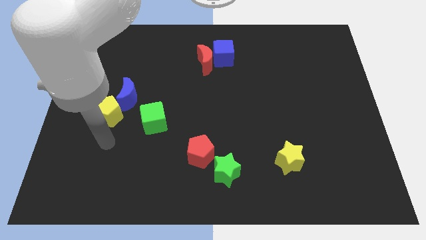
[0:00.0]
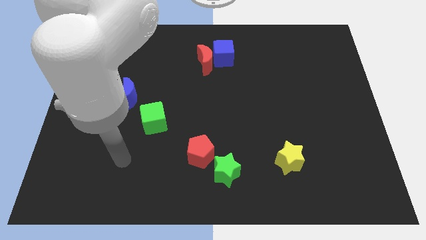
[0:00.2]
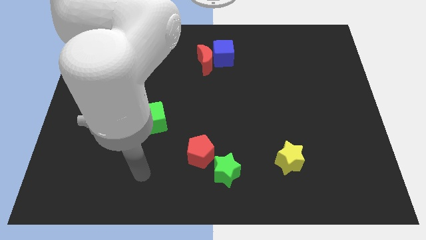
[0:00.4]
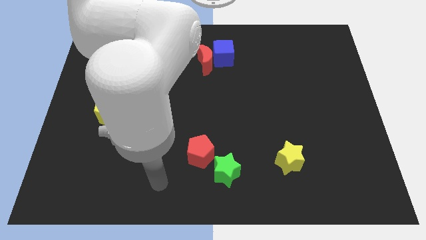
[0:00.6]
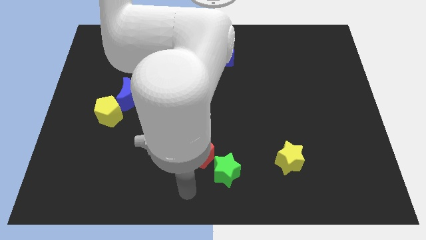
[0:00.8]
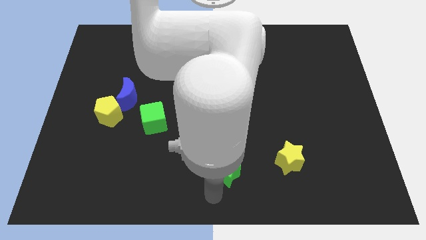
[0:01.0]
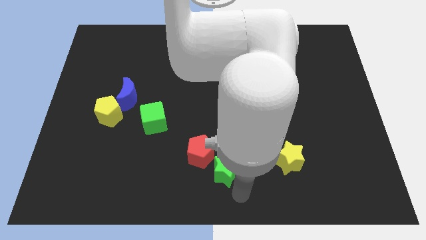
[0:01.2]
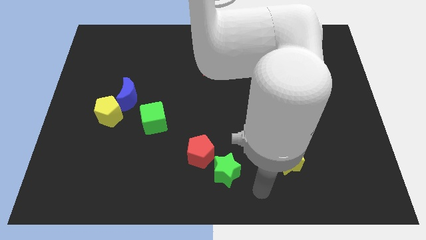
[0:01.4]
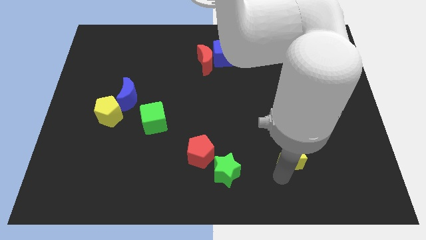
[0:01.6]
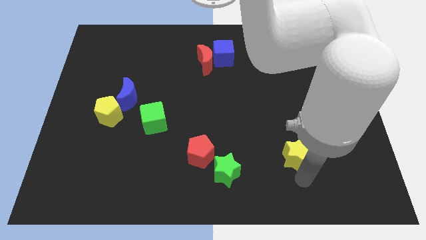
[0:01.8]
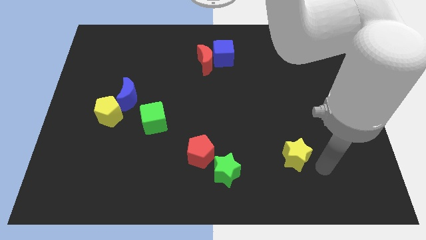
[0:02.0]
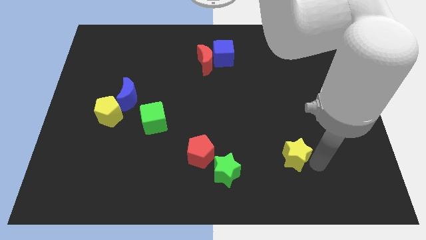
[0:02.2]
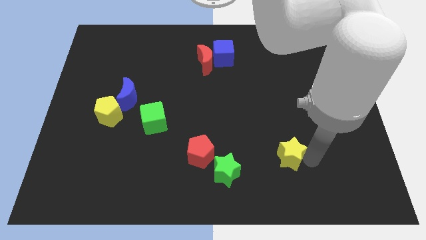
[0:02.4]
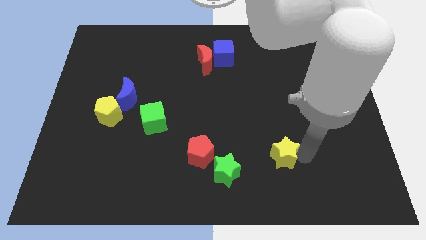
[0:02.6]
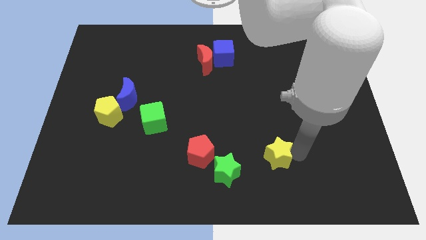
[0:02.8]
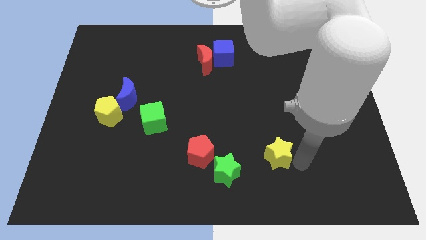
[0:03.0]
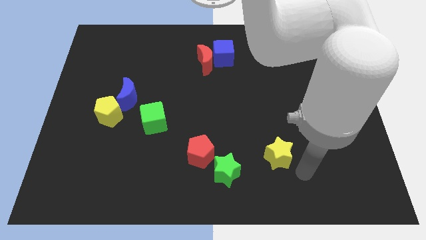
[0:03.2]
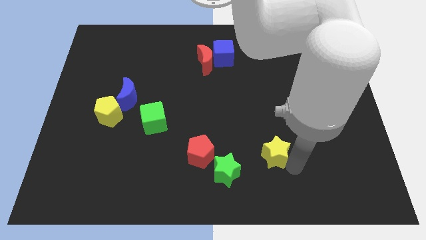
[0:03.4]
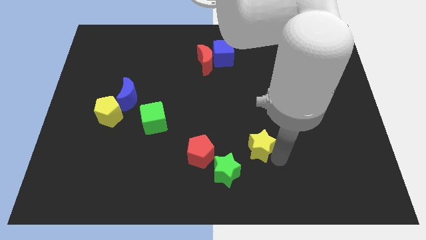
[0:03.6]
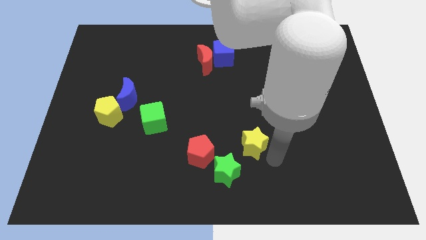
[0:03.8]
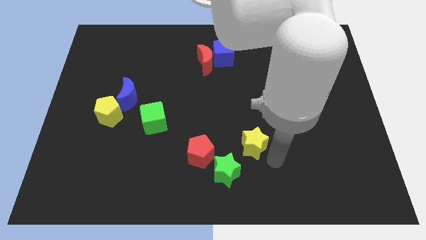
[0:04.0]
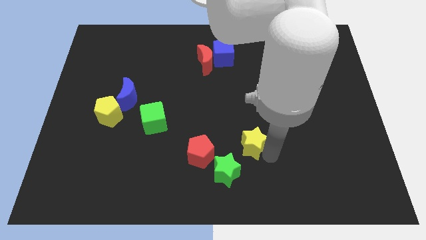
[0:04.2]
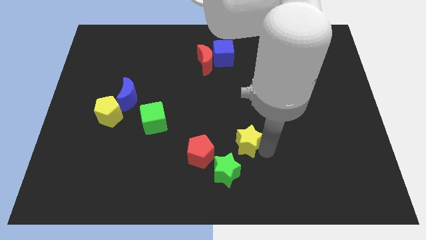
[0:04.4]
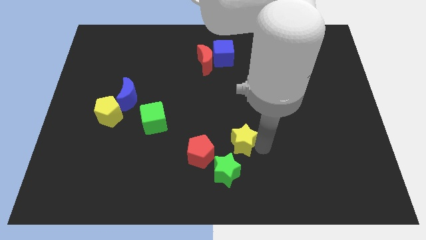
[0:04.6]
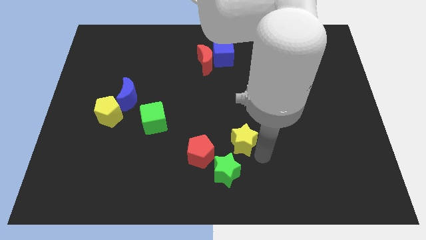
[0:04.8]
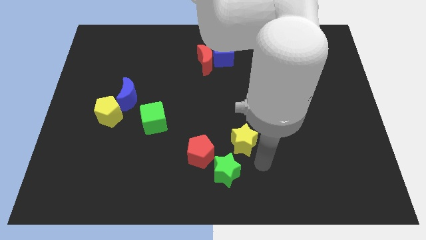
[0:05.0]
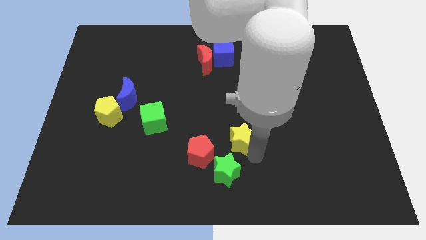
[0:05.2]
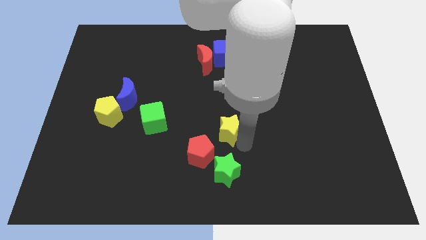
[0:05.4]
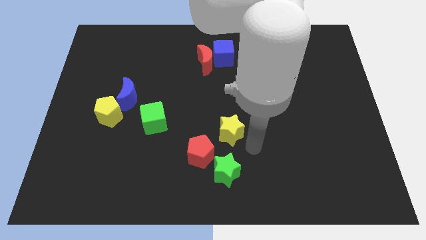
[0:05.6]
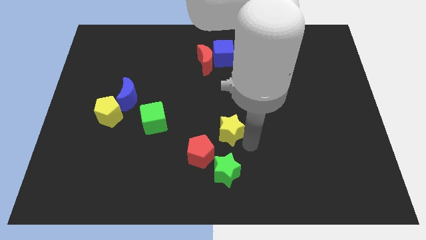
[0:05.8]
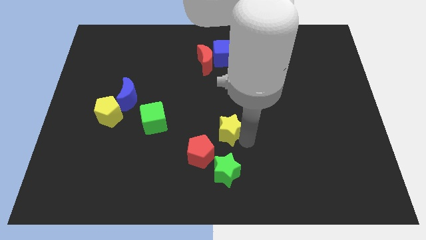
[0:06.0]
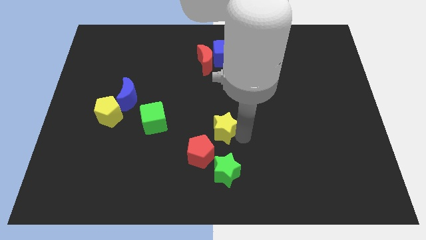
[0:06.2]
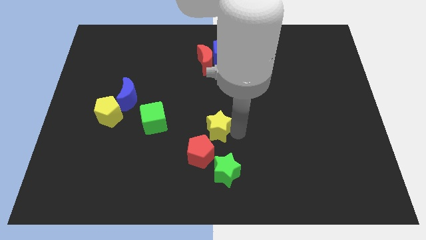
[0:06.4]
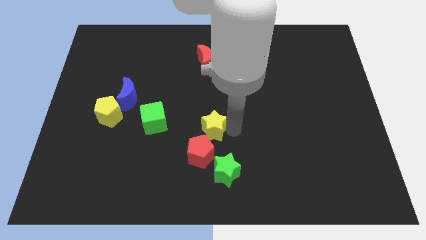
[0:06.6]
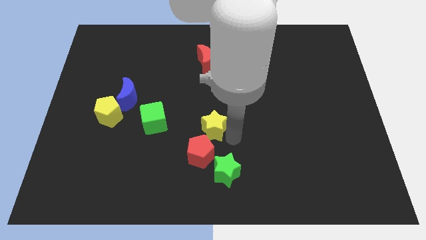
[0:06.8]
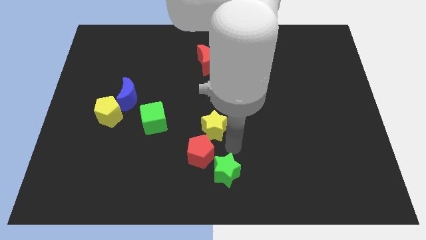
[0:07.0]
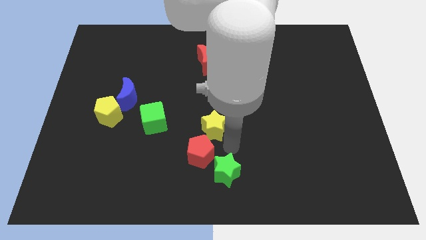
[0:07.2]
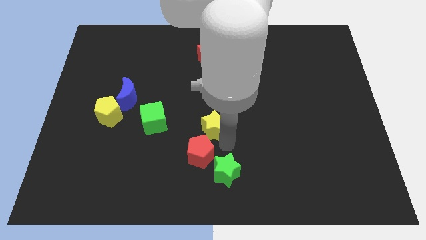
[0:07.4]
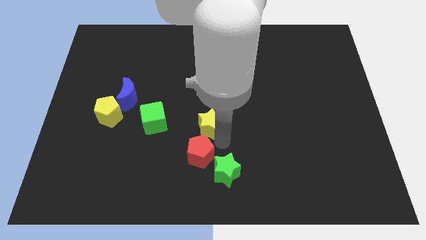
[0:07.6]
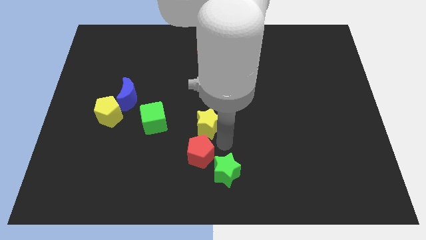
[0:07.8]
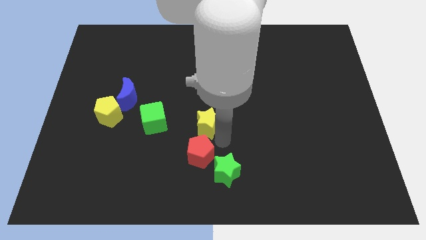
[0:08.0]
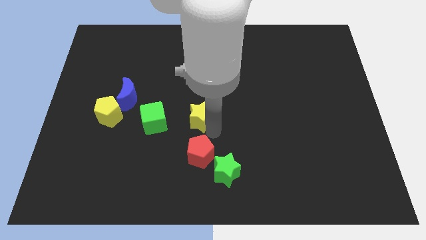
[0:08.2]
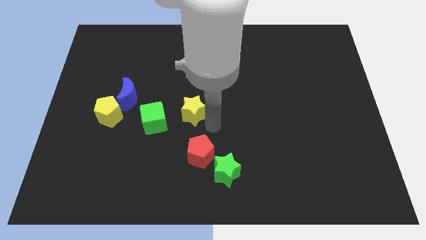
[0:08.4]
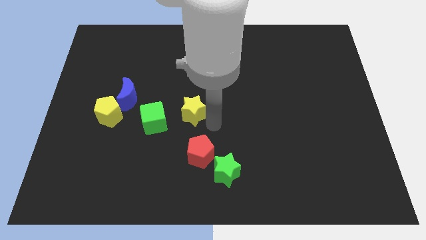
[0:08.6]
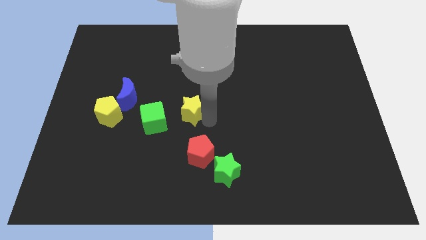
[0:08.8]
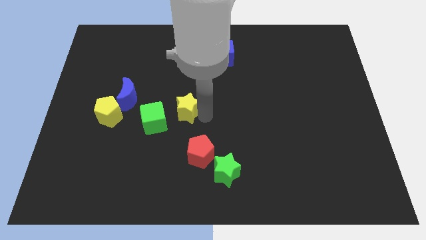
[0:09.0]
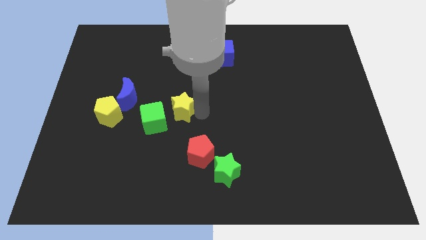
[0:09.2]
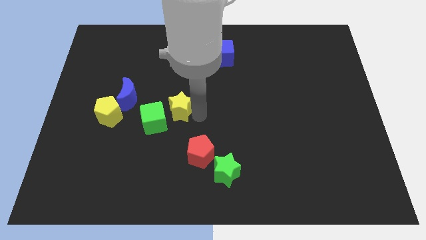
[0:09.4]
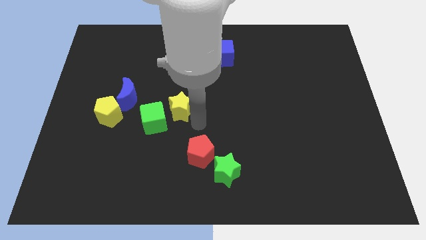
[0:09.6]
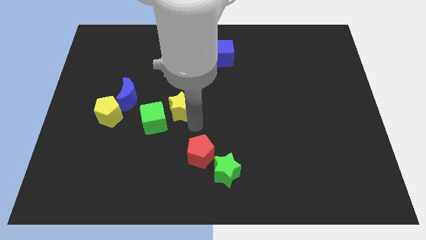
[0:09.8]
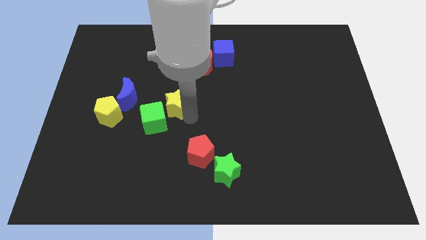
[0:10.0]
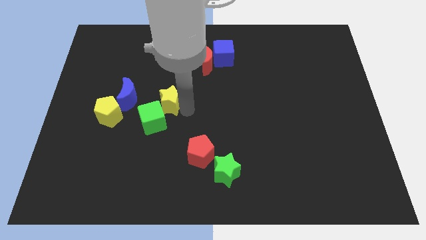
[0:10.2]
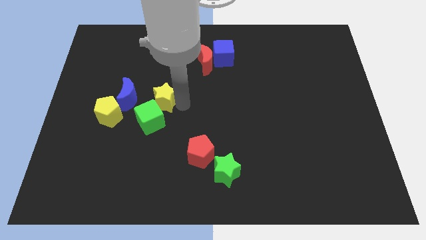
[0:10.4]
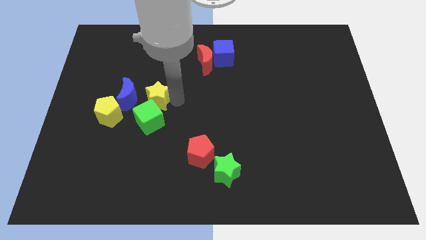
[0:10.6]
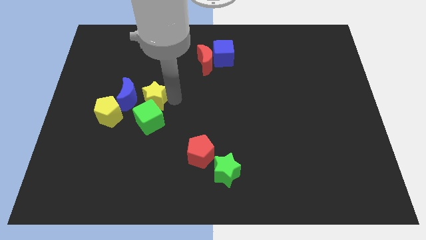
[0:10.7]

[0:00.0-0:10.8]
move the yellow star to the blue moon

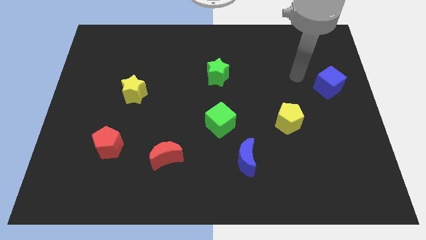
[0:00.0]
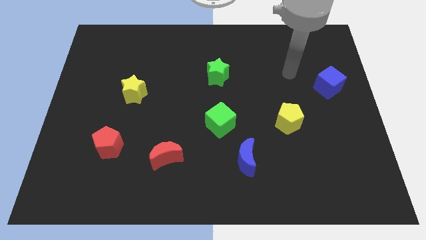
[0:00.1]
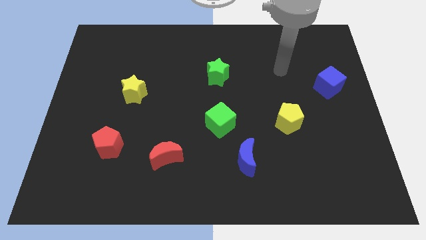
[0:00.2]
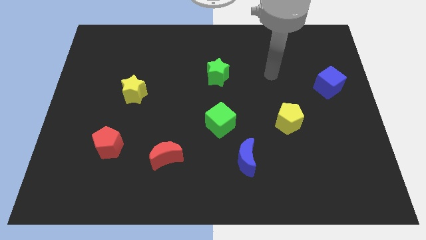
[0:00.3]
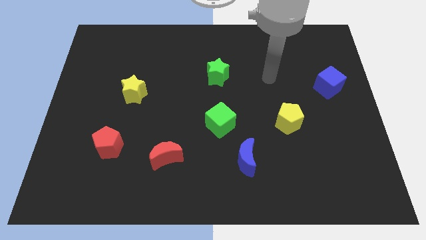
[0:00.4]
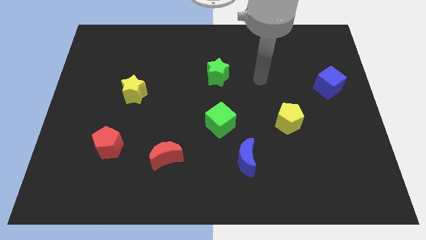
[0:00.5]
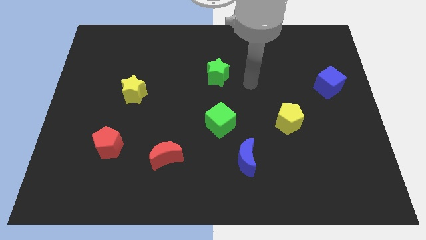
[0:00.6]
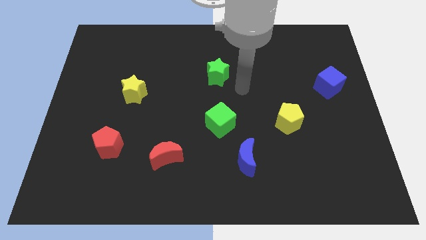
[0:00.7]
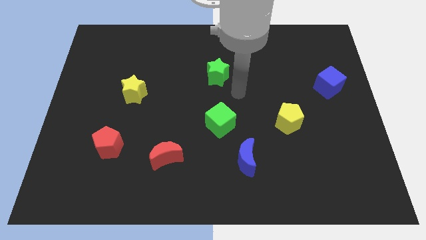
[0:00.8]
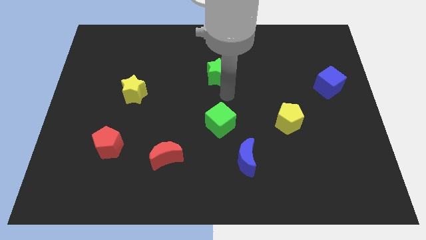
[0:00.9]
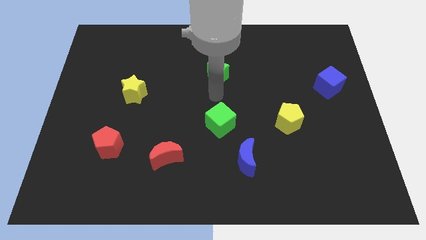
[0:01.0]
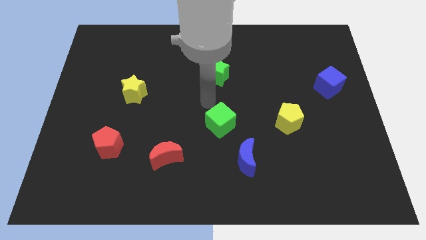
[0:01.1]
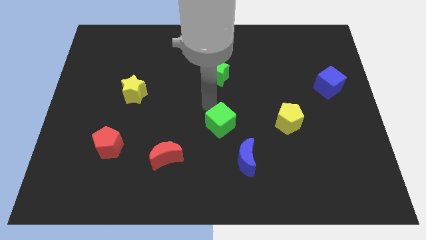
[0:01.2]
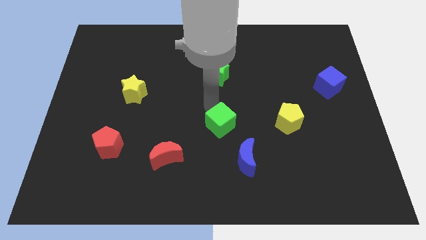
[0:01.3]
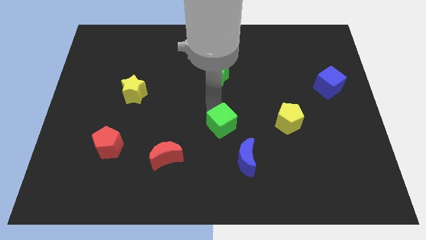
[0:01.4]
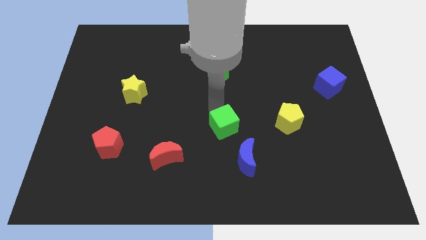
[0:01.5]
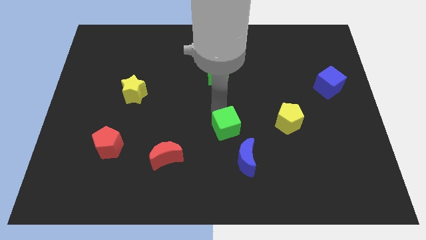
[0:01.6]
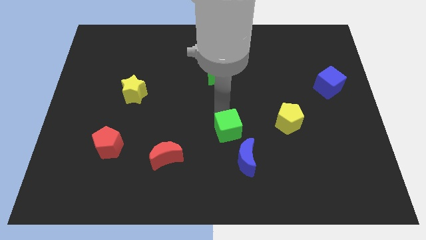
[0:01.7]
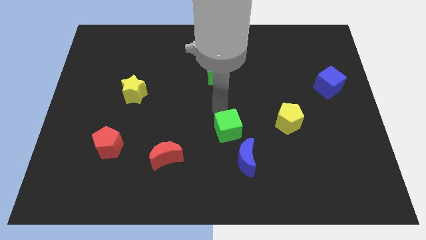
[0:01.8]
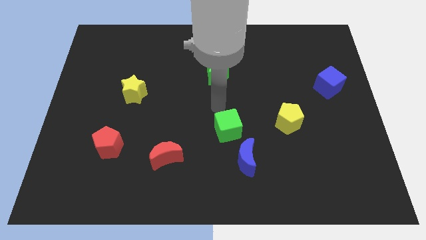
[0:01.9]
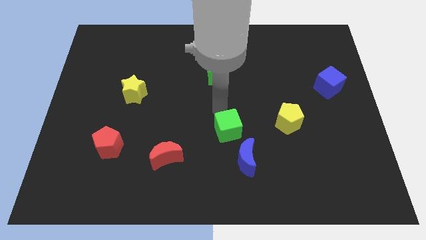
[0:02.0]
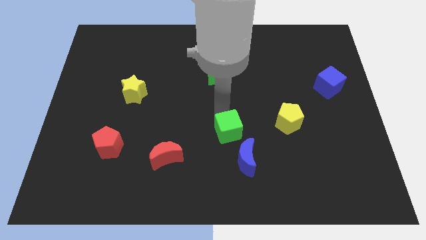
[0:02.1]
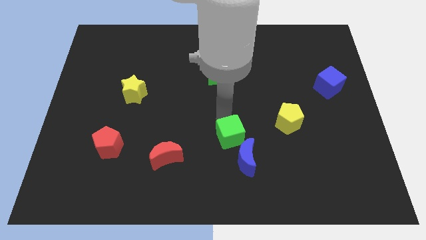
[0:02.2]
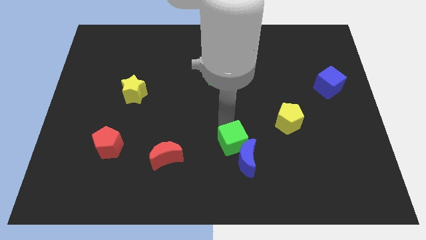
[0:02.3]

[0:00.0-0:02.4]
slide the green cube close to the blue moon
